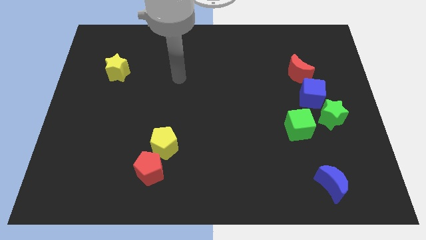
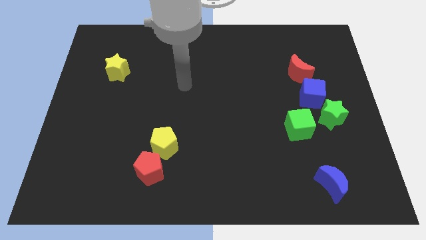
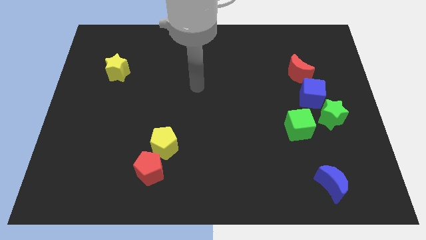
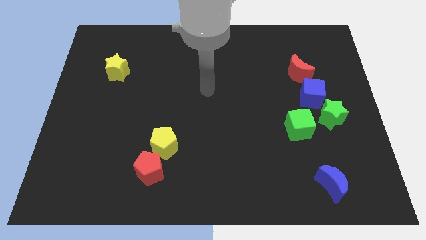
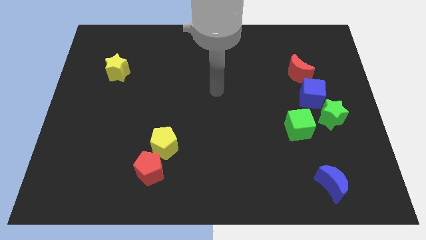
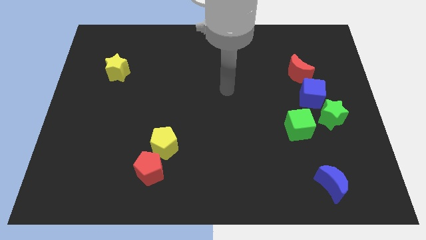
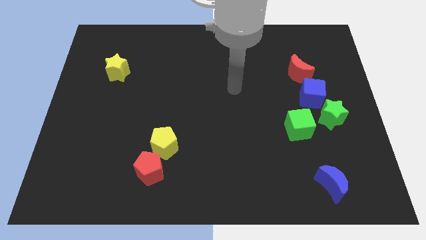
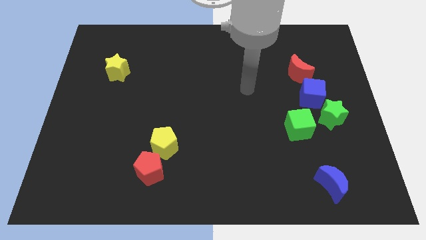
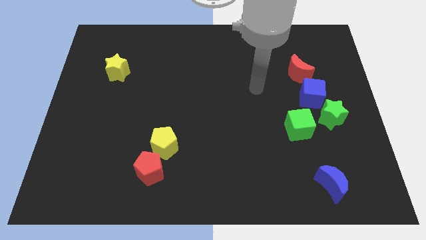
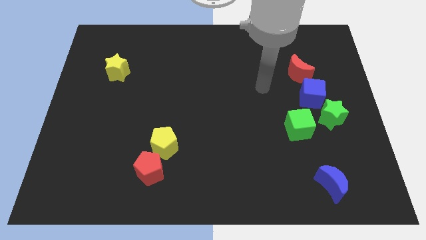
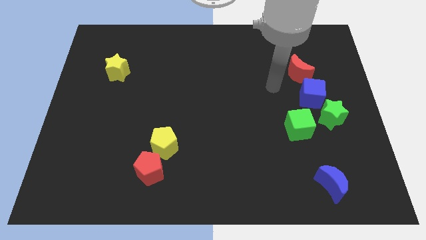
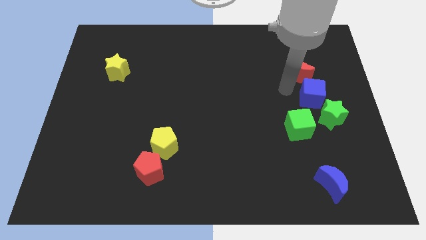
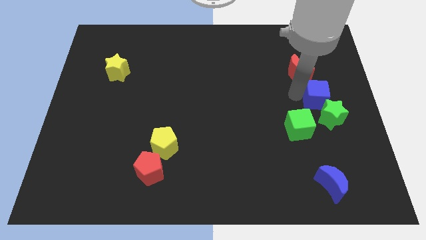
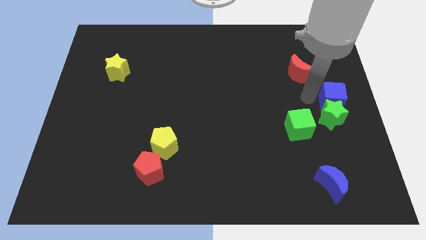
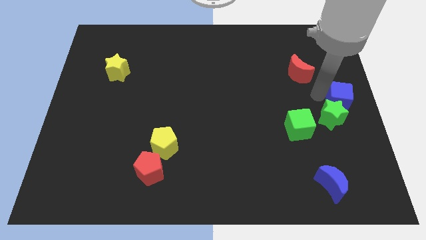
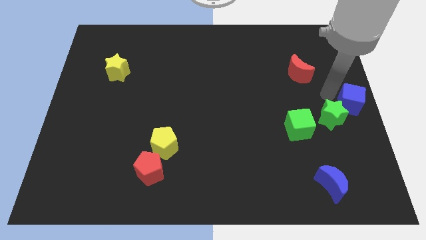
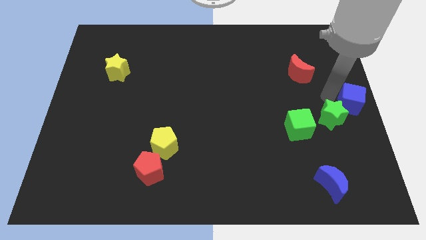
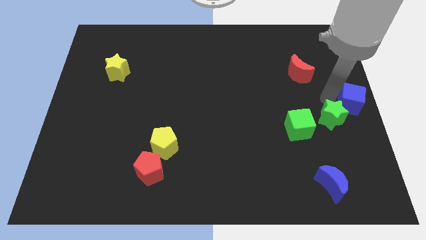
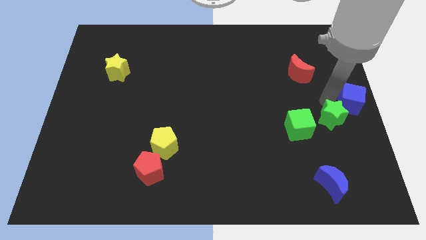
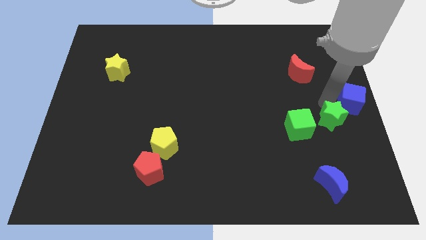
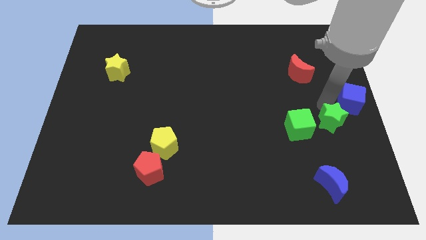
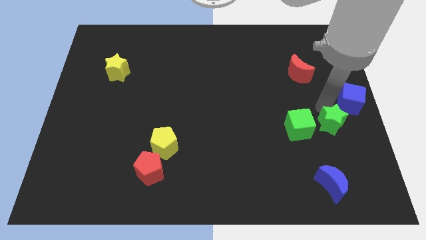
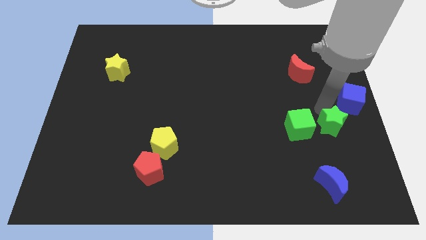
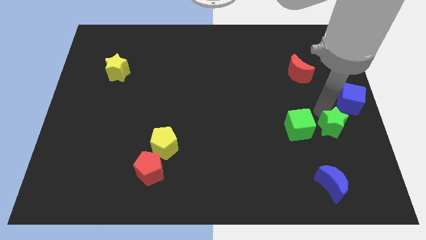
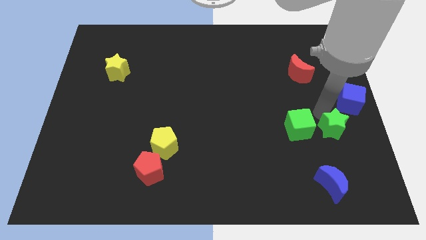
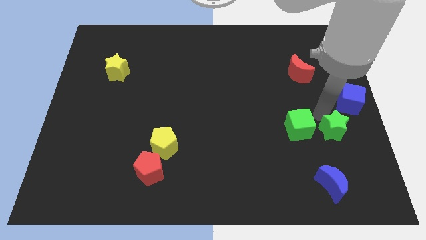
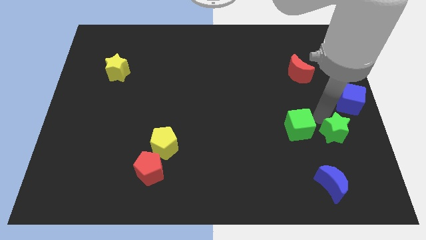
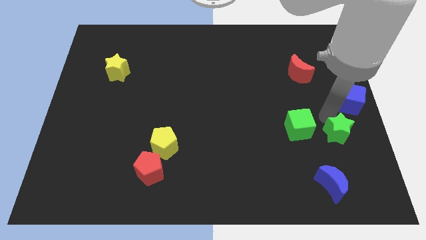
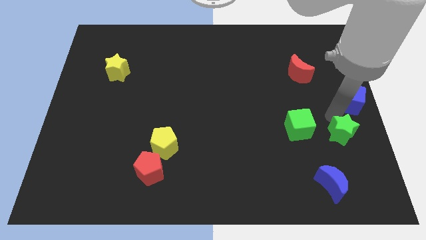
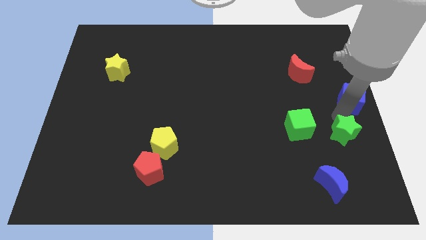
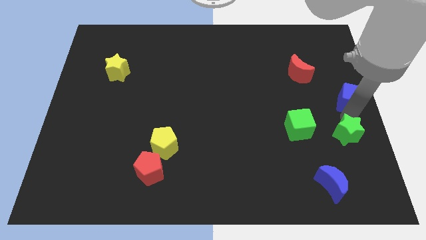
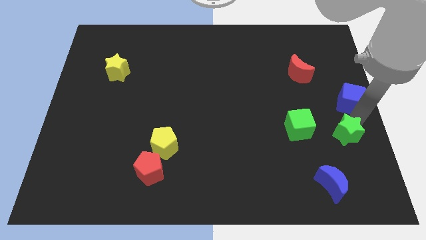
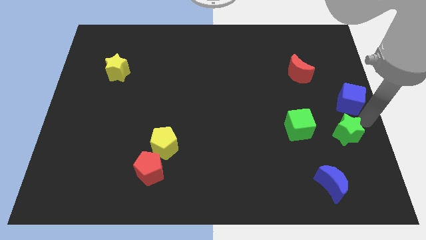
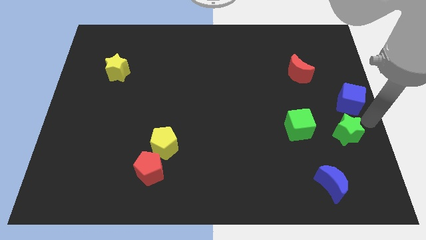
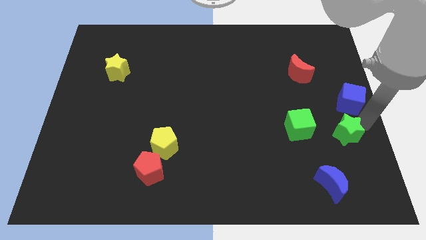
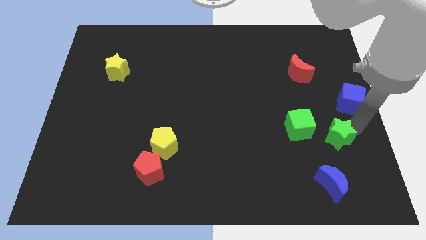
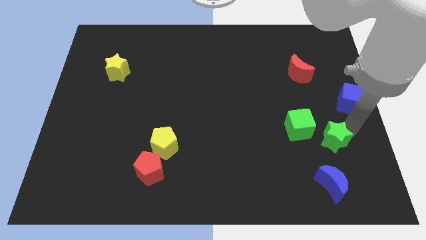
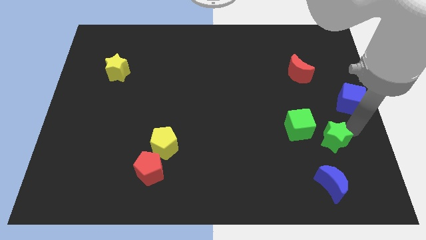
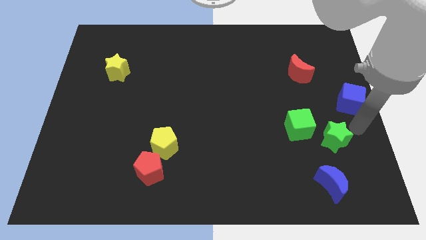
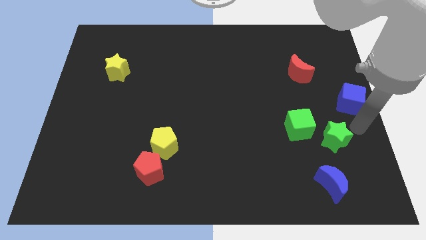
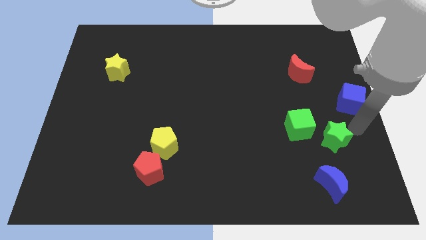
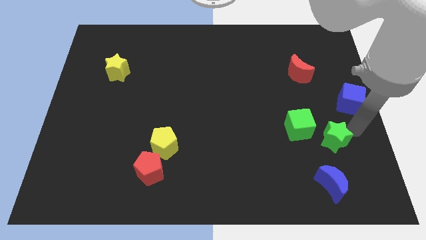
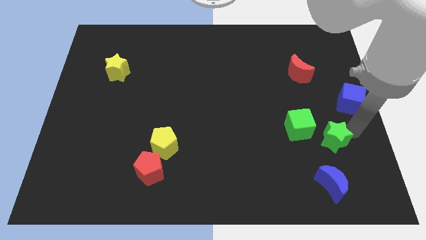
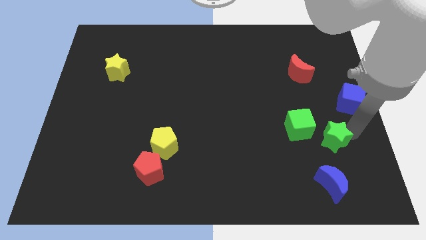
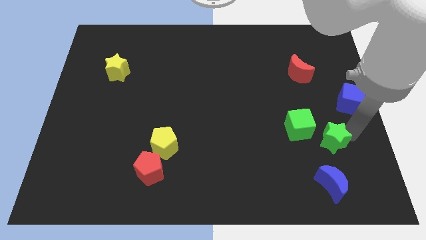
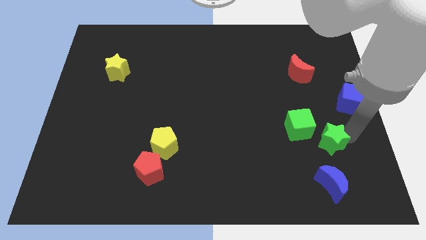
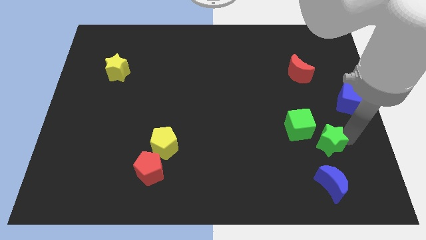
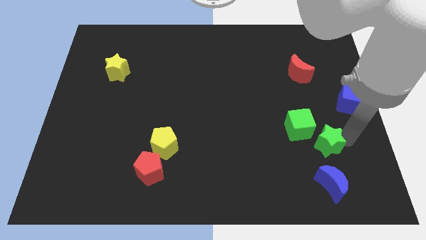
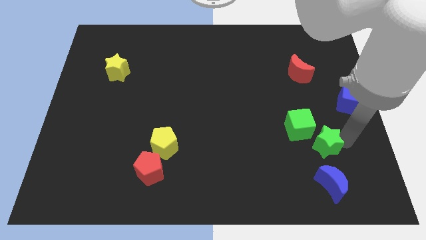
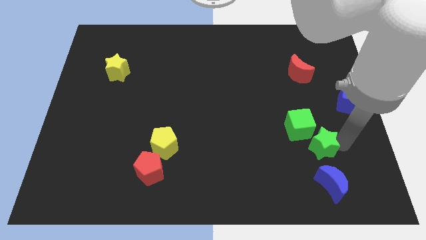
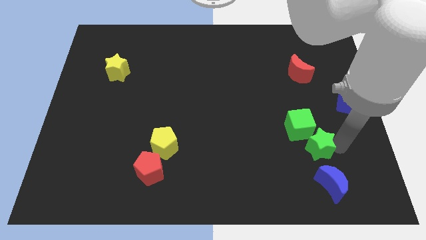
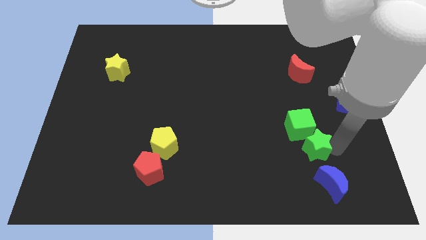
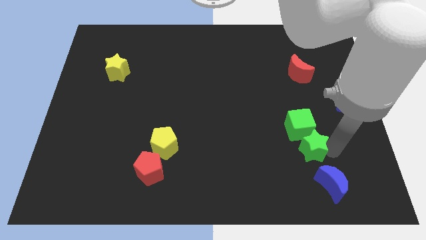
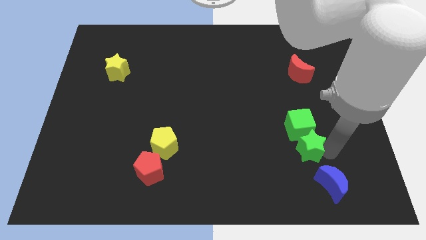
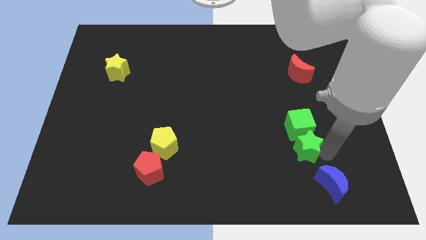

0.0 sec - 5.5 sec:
put the green star diagonally down and to the left of the green cube

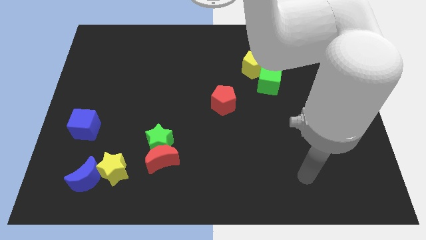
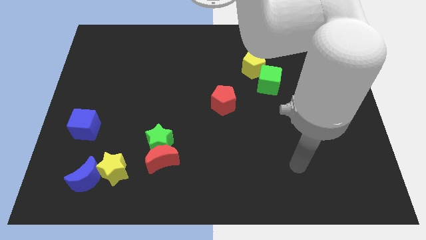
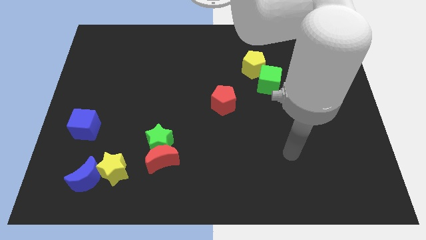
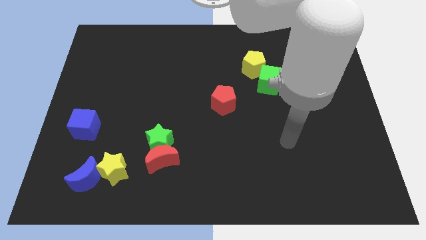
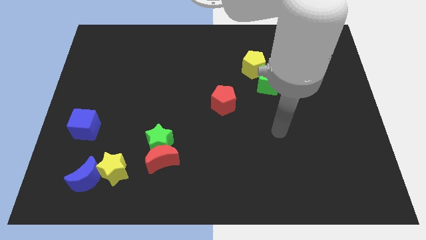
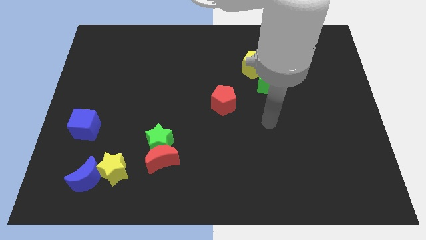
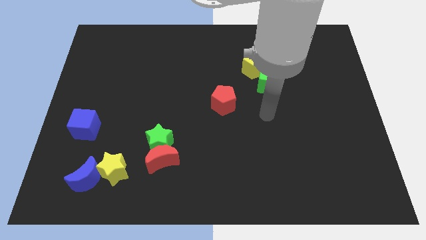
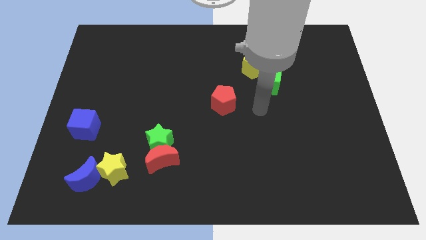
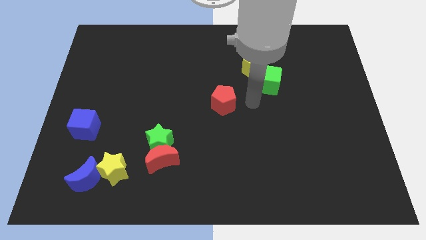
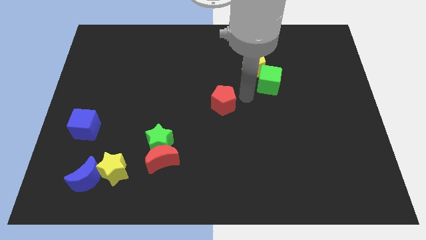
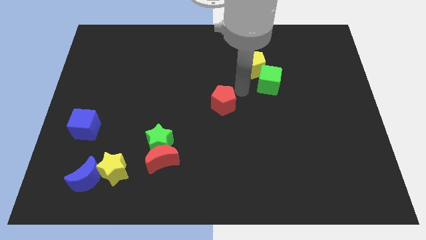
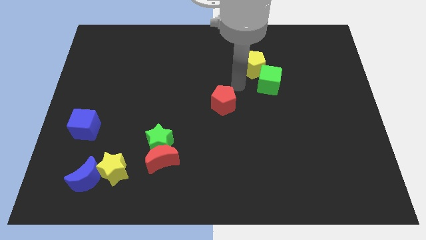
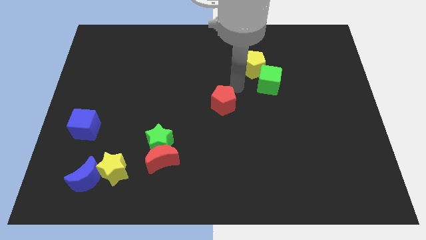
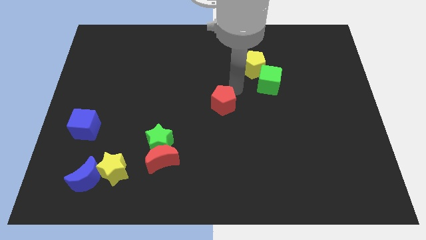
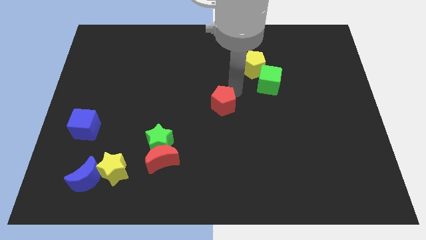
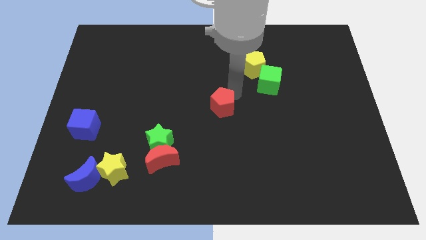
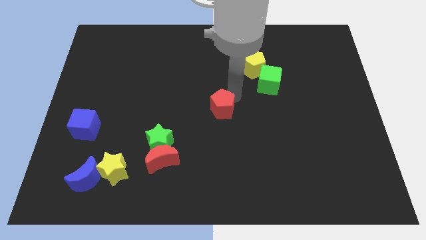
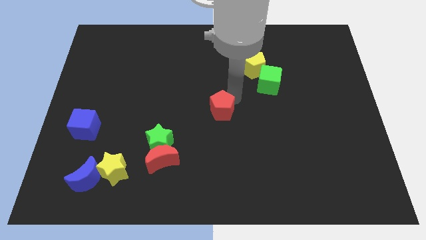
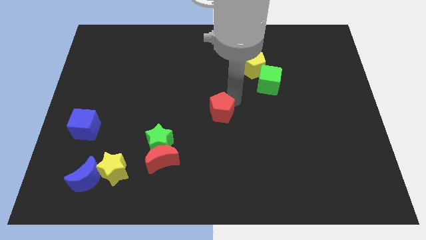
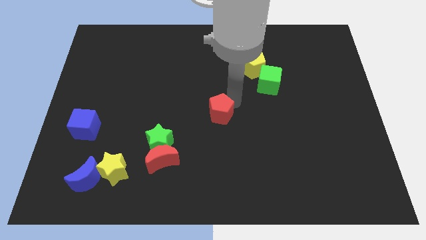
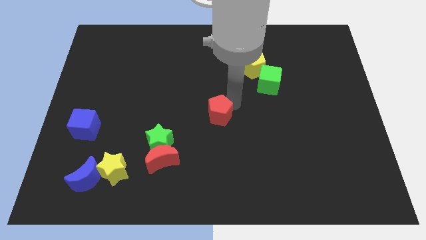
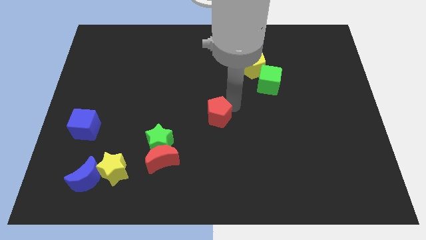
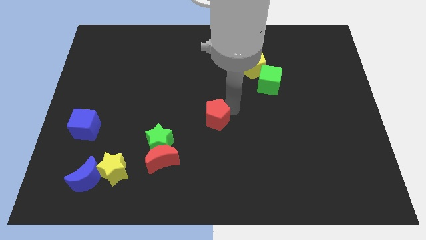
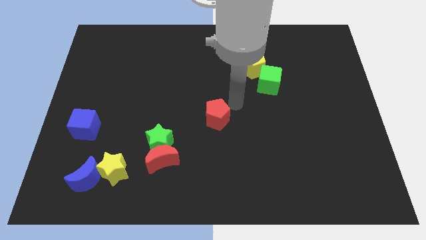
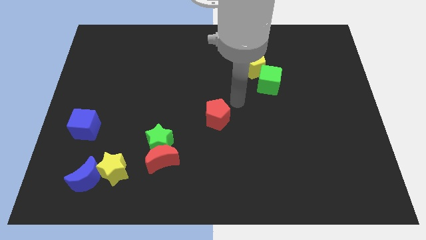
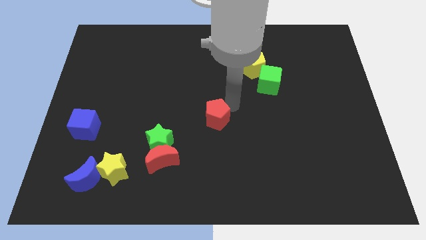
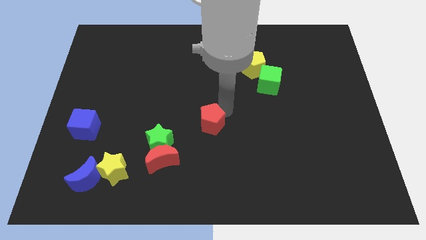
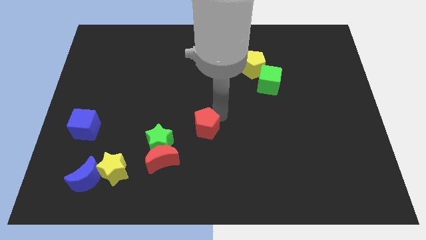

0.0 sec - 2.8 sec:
slide the red pentagon to the top right side of the red moon

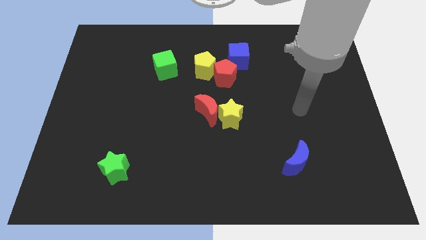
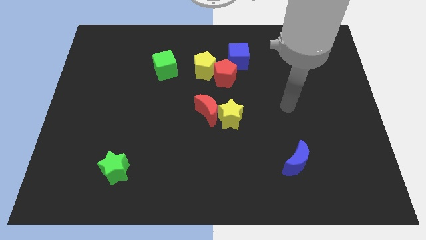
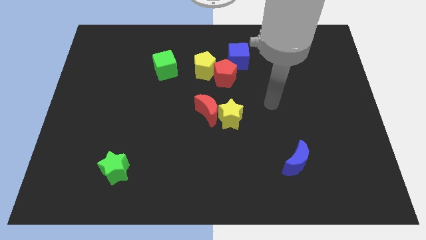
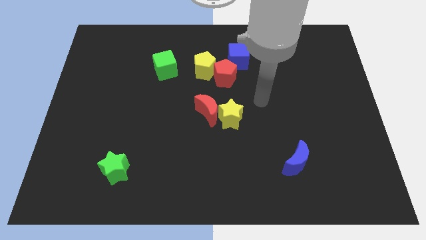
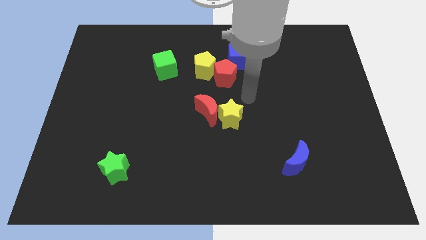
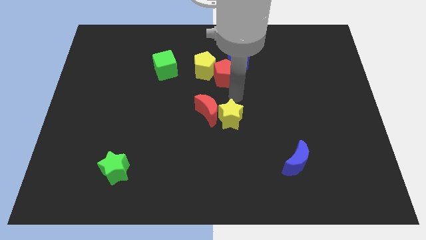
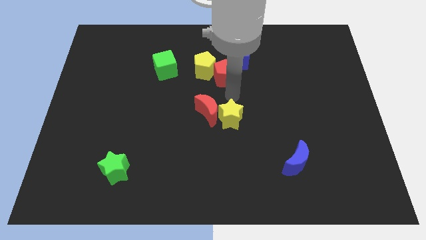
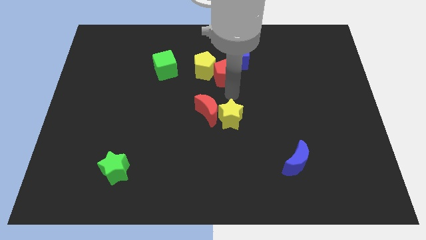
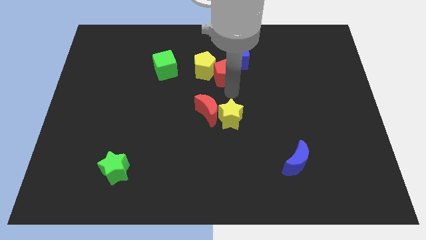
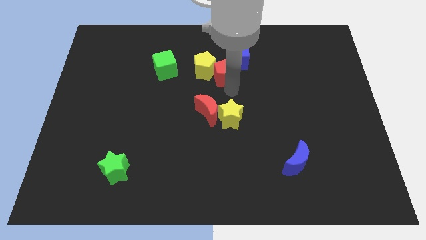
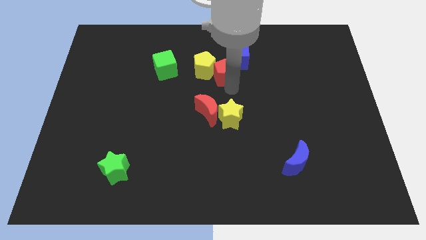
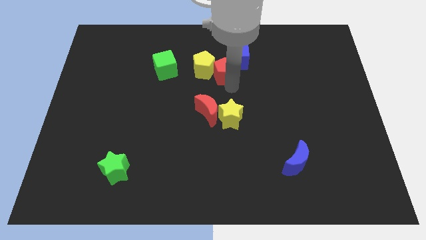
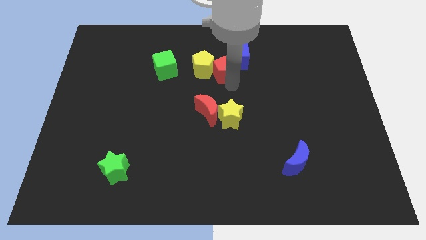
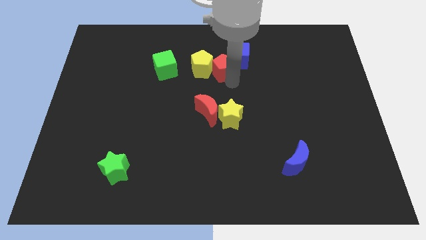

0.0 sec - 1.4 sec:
move the red pentagon to the left side of the blue cube
